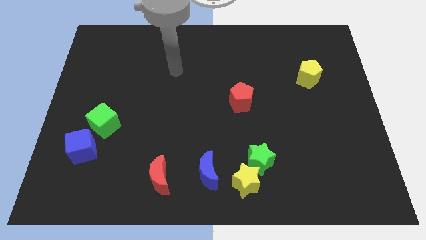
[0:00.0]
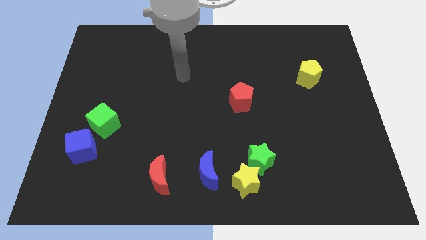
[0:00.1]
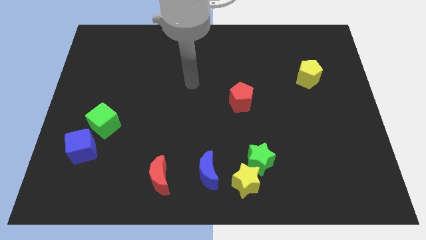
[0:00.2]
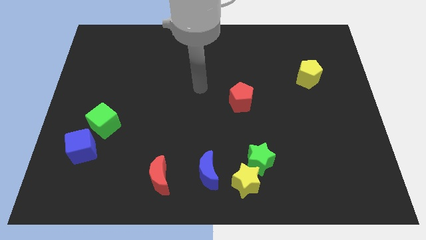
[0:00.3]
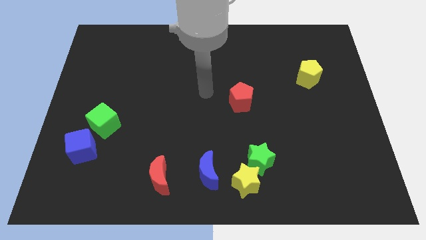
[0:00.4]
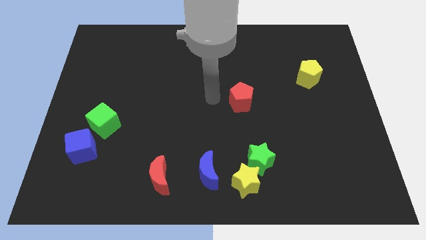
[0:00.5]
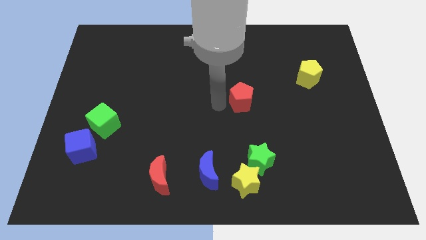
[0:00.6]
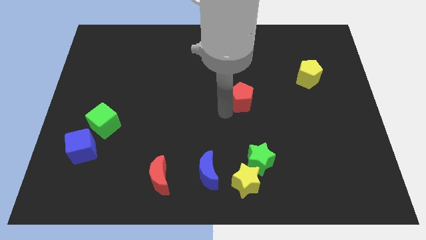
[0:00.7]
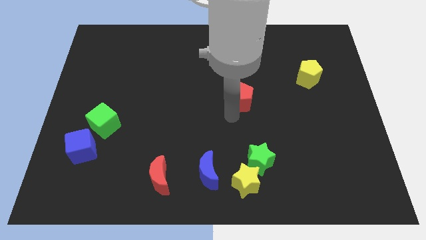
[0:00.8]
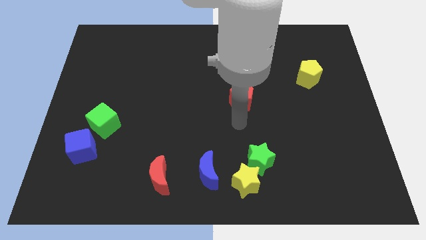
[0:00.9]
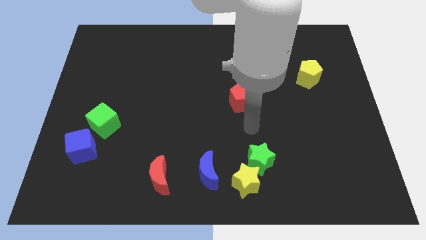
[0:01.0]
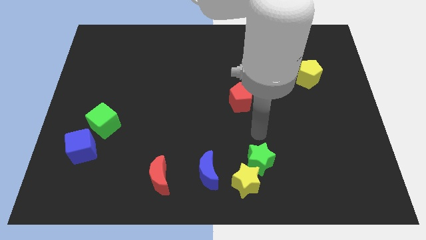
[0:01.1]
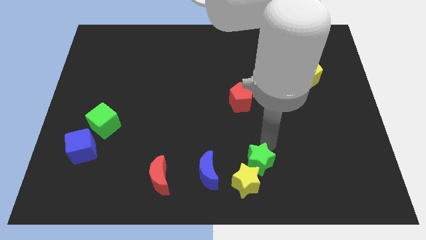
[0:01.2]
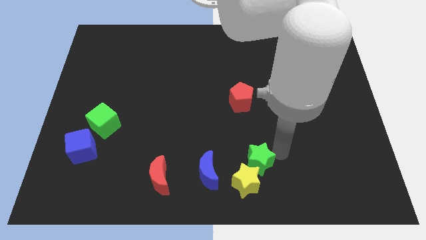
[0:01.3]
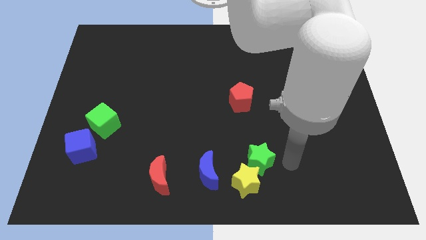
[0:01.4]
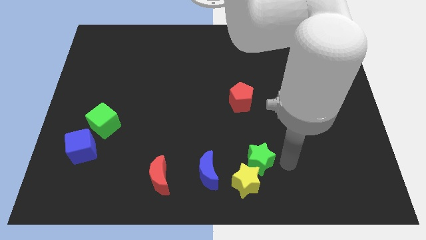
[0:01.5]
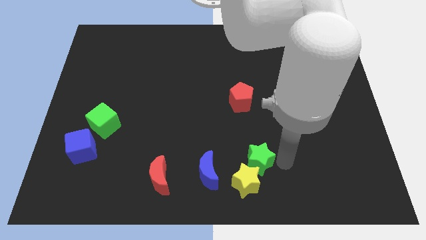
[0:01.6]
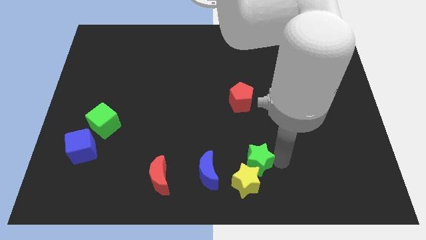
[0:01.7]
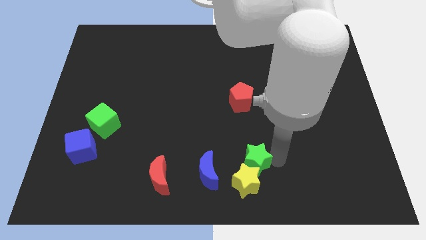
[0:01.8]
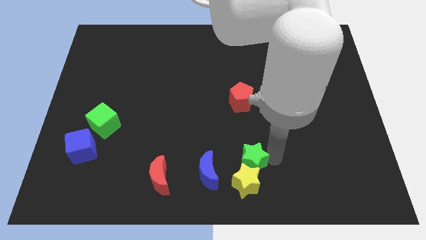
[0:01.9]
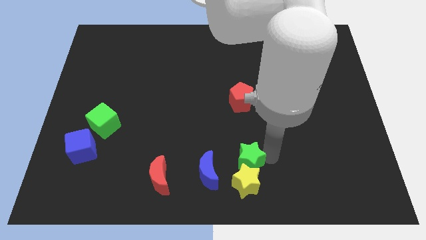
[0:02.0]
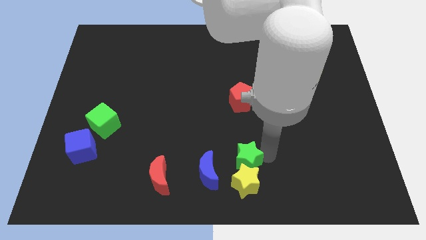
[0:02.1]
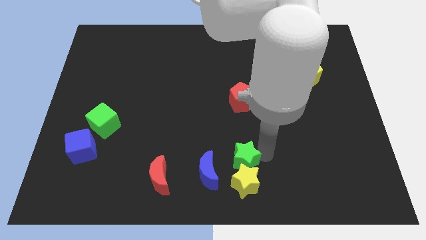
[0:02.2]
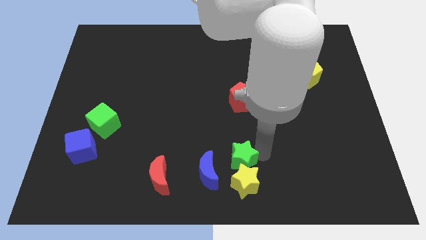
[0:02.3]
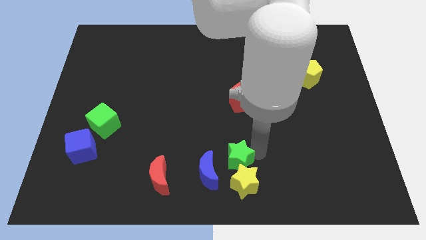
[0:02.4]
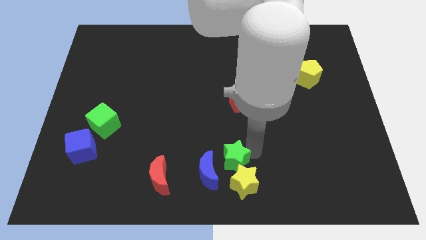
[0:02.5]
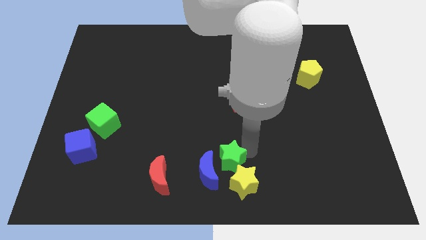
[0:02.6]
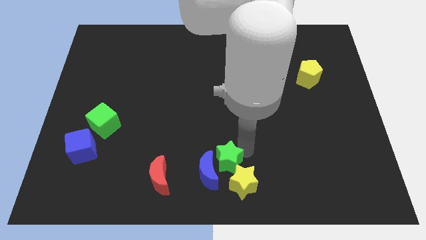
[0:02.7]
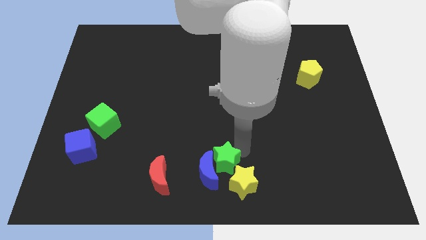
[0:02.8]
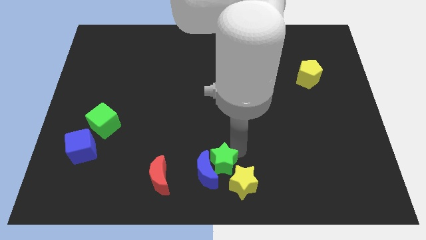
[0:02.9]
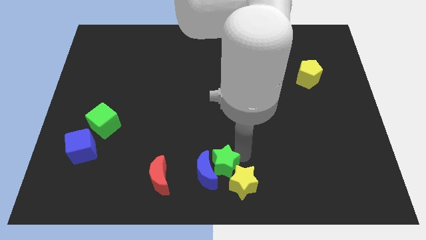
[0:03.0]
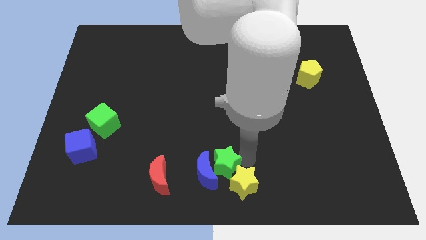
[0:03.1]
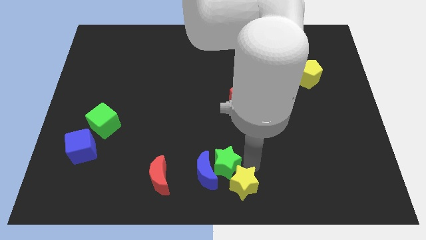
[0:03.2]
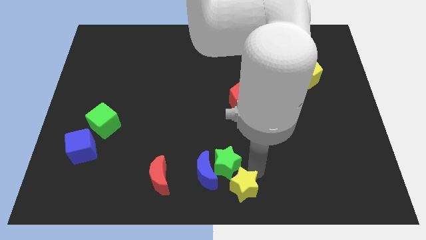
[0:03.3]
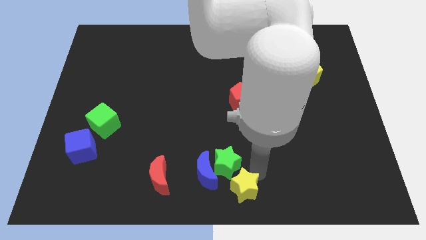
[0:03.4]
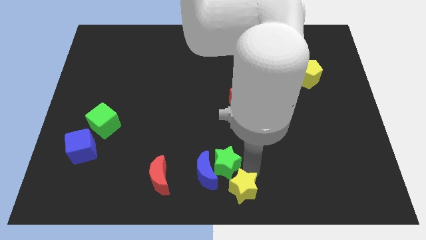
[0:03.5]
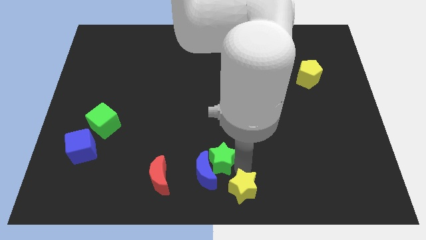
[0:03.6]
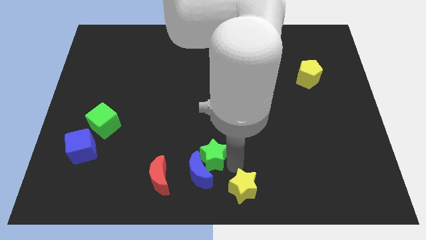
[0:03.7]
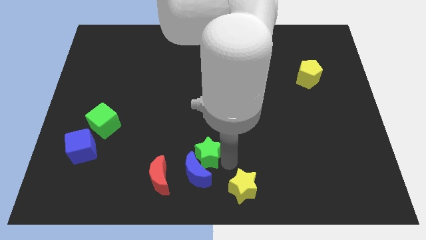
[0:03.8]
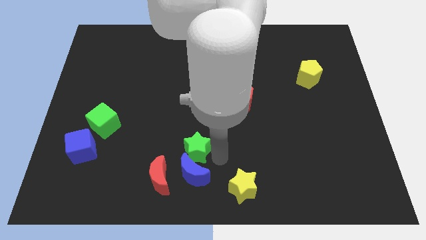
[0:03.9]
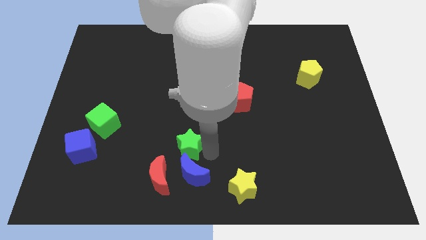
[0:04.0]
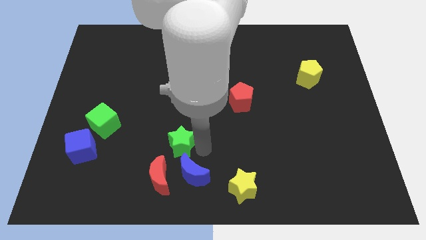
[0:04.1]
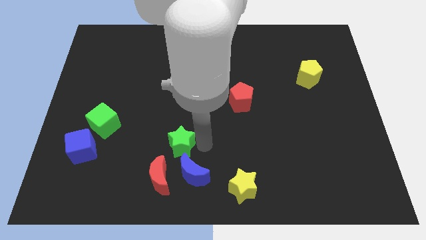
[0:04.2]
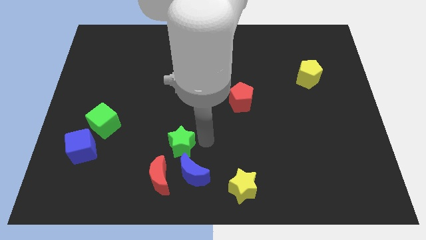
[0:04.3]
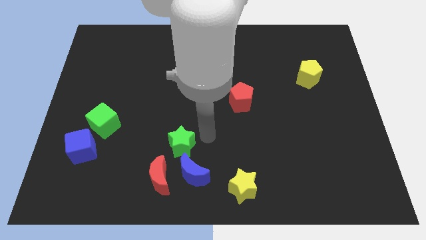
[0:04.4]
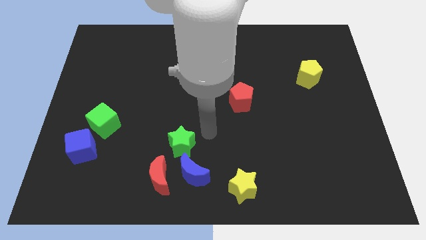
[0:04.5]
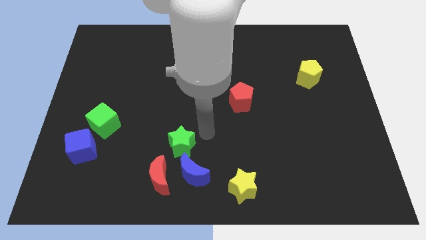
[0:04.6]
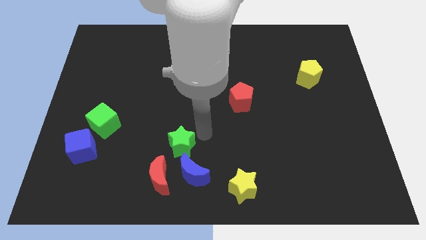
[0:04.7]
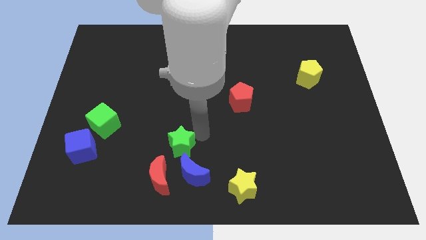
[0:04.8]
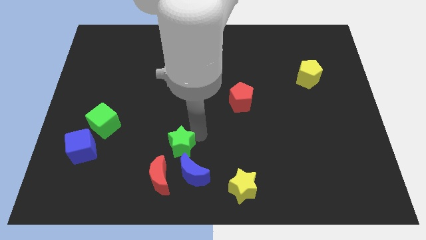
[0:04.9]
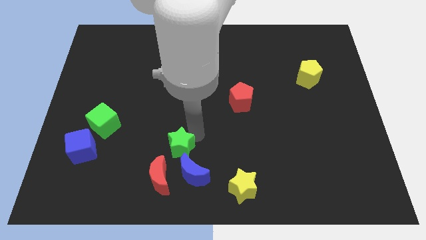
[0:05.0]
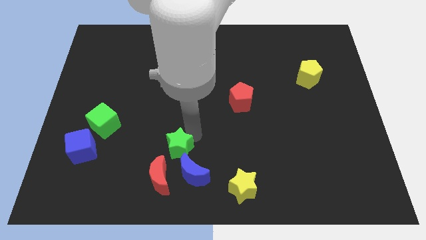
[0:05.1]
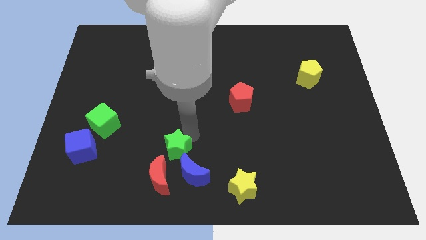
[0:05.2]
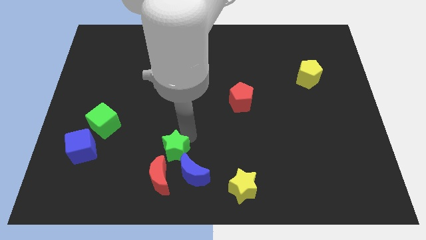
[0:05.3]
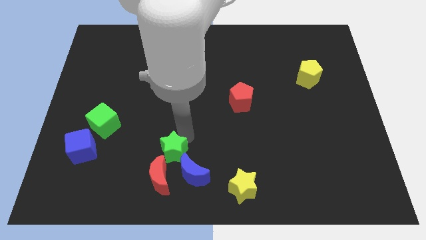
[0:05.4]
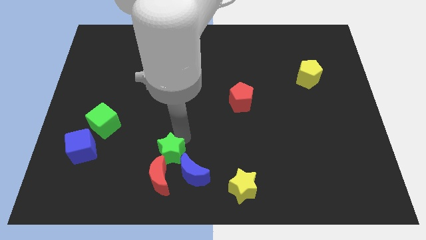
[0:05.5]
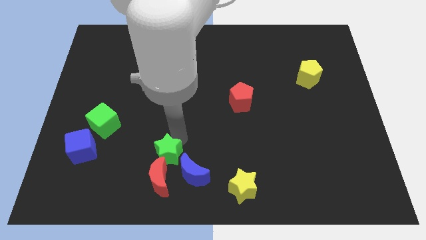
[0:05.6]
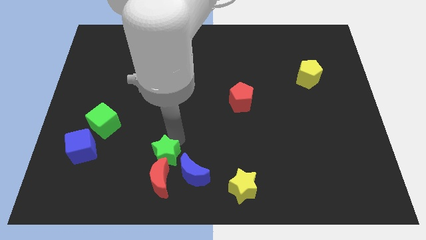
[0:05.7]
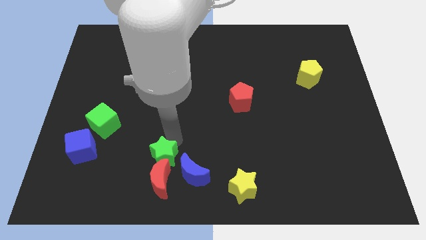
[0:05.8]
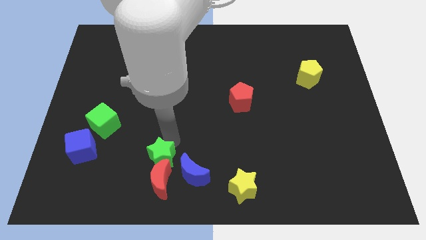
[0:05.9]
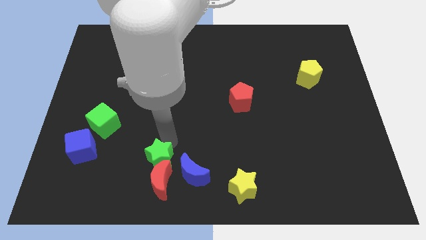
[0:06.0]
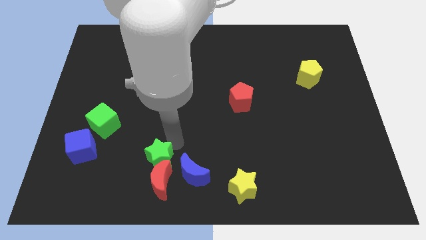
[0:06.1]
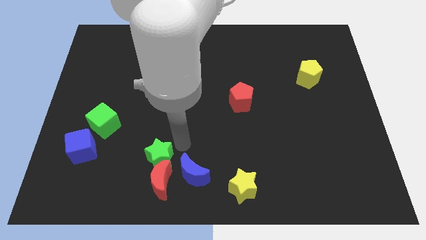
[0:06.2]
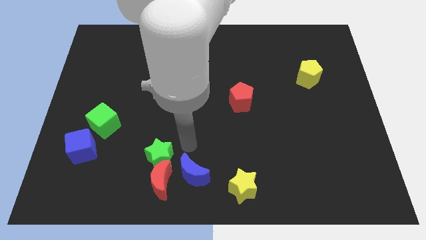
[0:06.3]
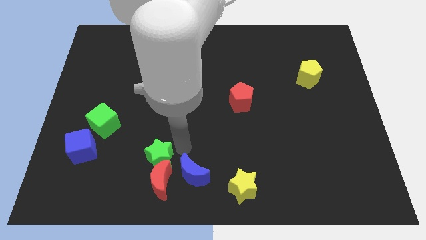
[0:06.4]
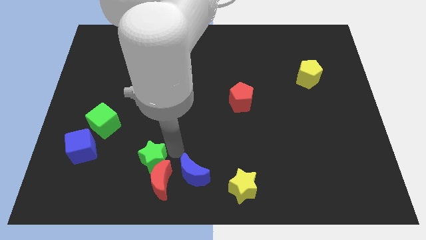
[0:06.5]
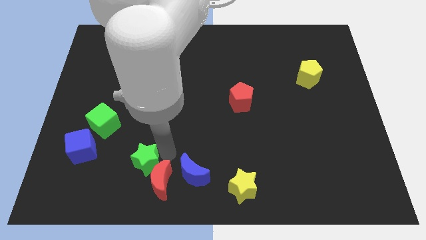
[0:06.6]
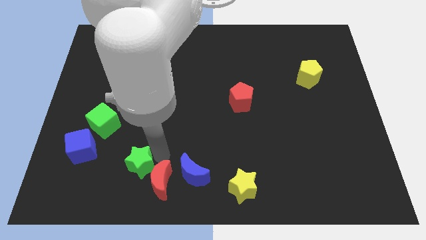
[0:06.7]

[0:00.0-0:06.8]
push the green star to the left side of the red moon

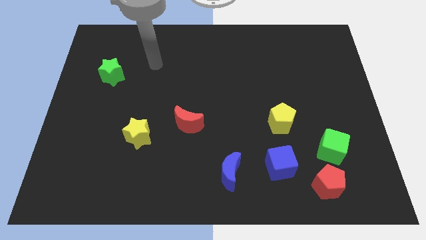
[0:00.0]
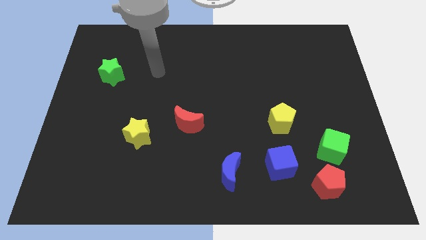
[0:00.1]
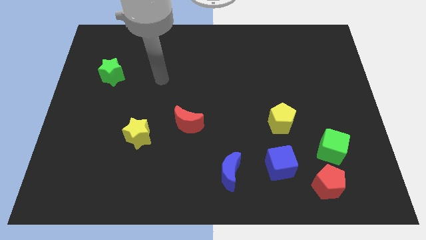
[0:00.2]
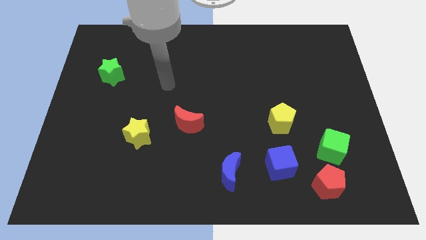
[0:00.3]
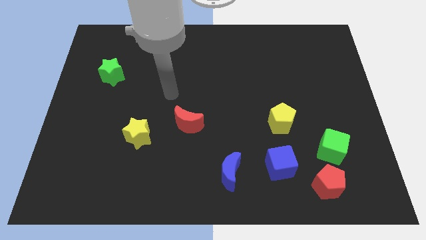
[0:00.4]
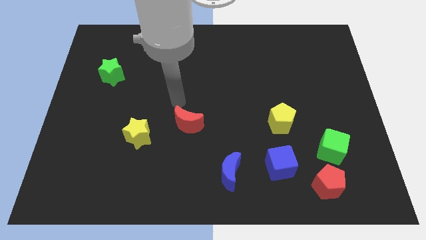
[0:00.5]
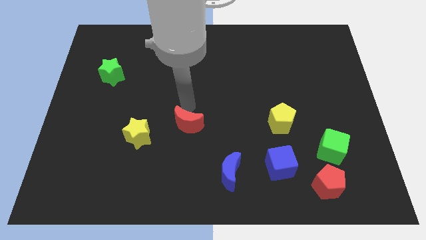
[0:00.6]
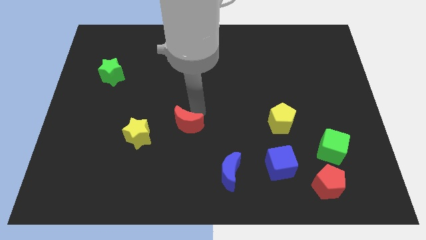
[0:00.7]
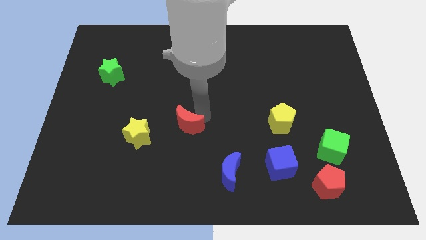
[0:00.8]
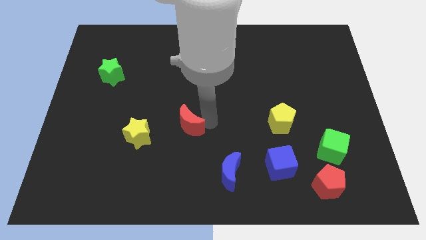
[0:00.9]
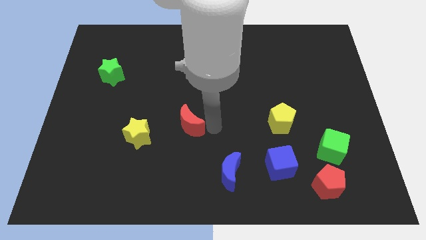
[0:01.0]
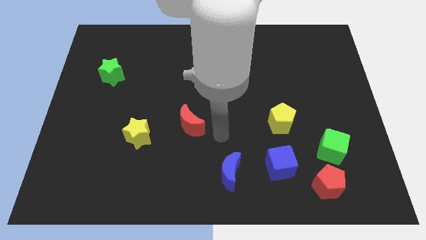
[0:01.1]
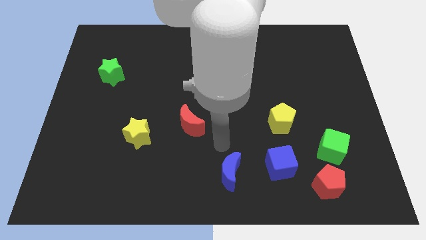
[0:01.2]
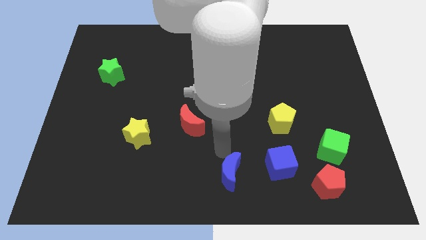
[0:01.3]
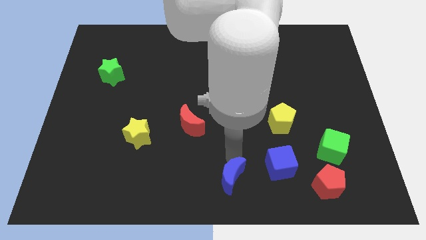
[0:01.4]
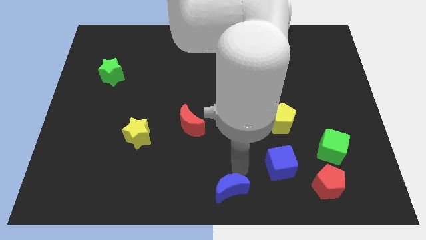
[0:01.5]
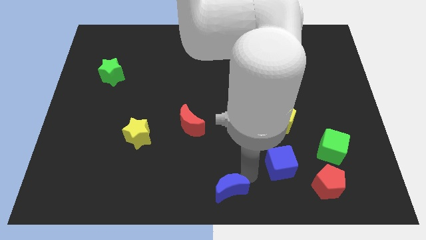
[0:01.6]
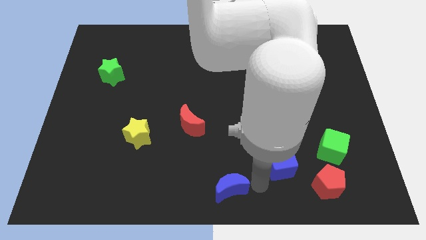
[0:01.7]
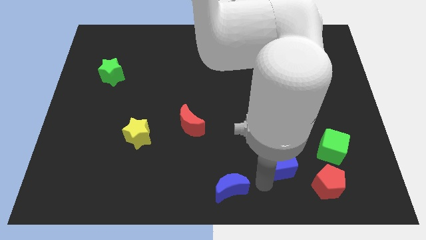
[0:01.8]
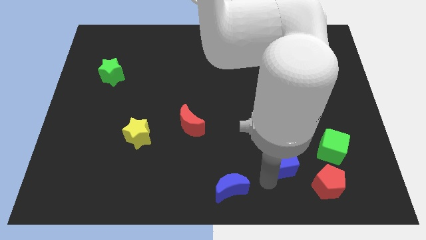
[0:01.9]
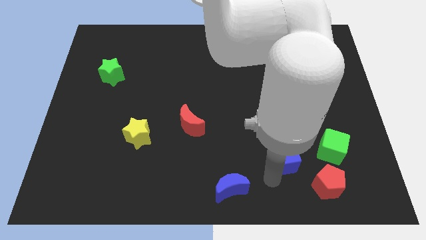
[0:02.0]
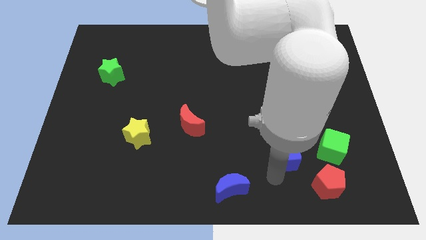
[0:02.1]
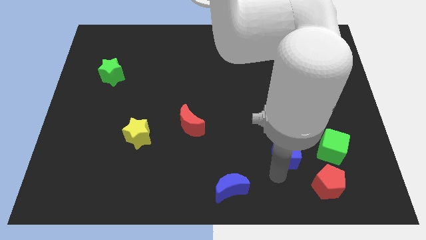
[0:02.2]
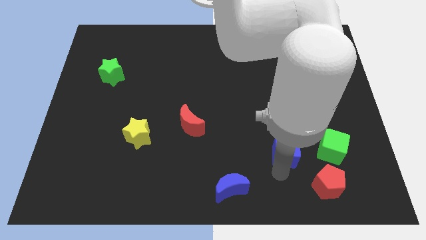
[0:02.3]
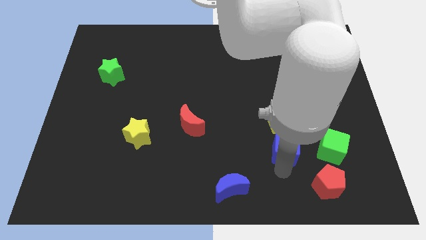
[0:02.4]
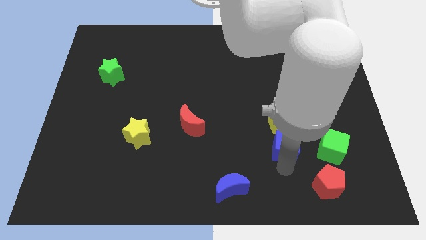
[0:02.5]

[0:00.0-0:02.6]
push the blue cube diagonally down and to the right of the yellow pentagon
